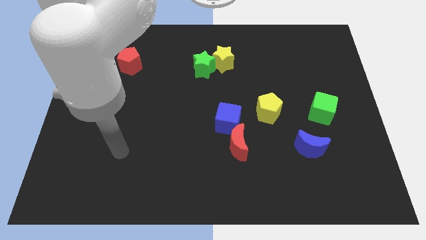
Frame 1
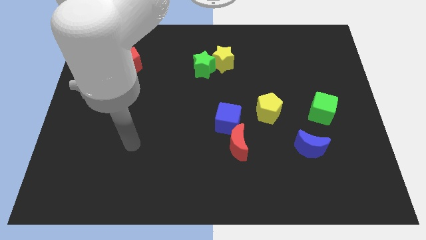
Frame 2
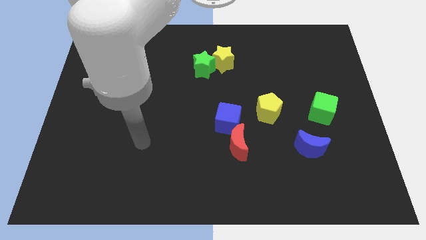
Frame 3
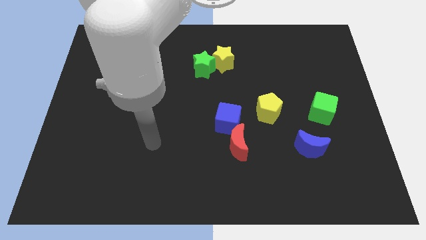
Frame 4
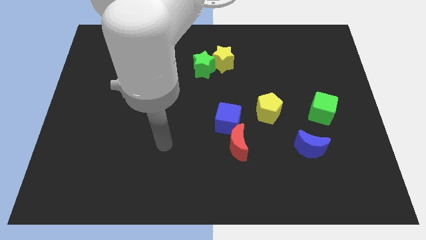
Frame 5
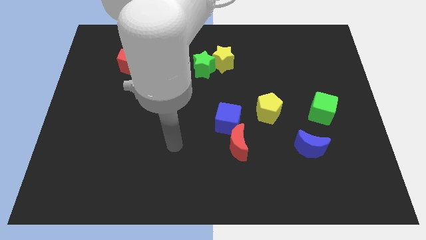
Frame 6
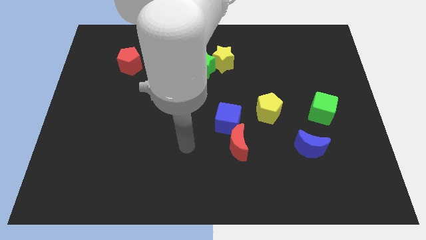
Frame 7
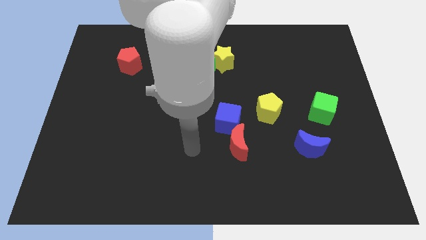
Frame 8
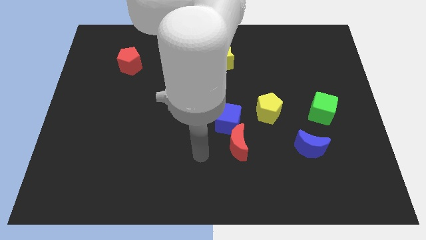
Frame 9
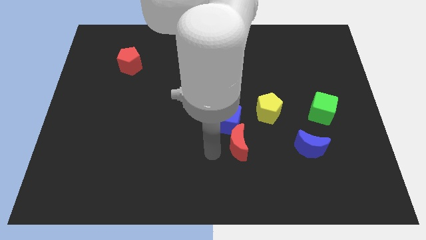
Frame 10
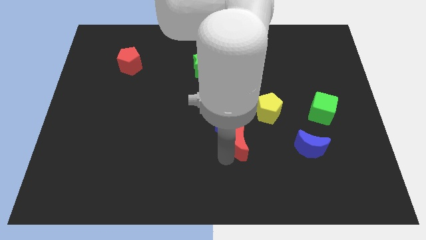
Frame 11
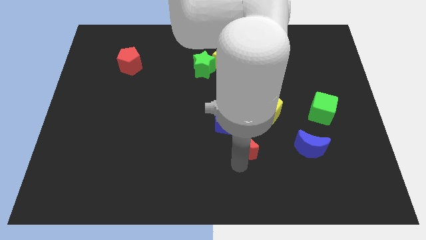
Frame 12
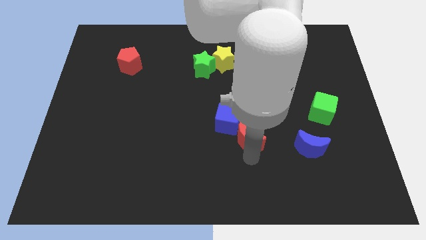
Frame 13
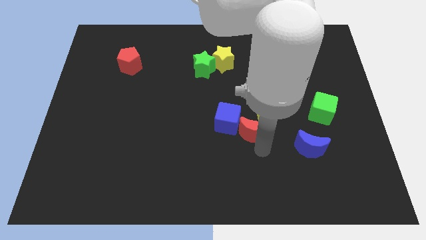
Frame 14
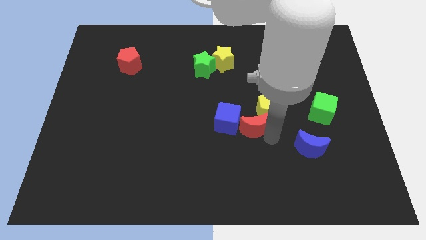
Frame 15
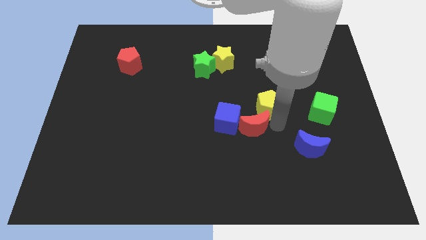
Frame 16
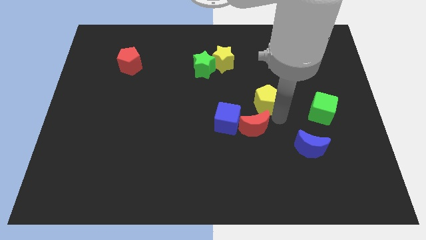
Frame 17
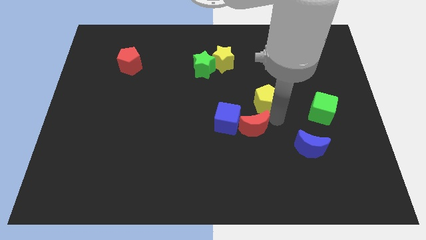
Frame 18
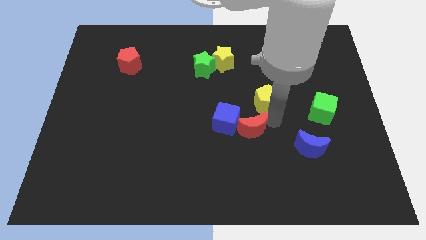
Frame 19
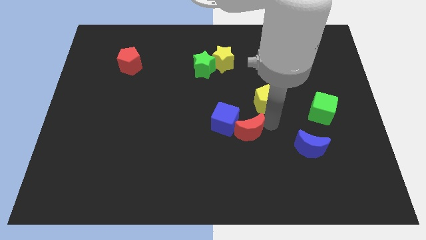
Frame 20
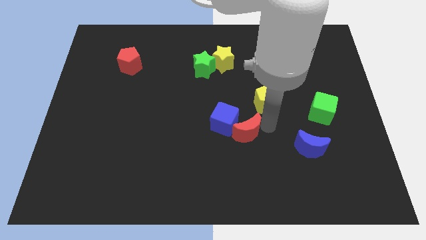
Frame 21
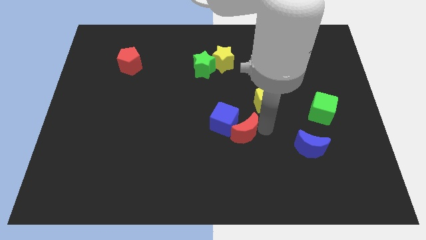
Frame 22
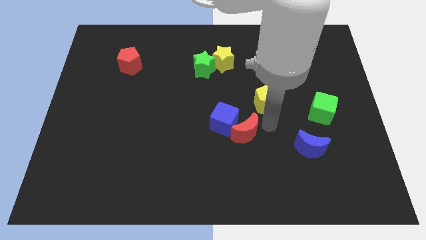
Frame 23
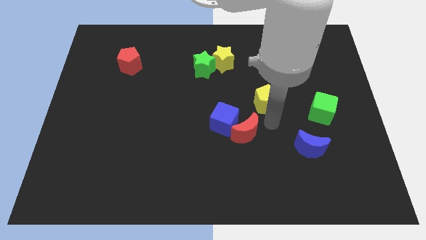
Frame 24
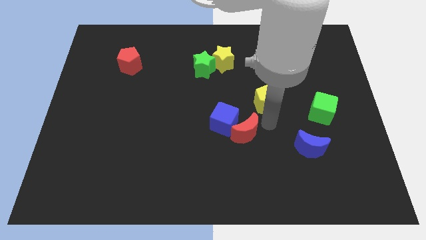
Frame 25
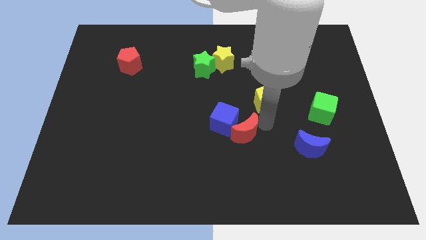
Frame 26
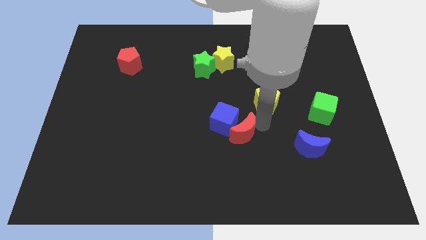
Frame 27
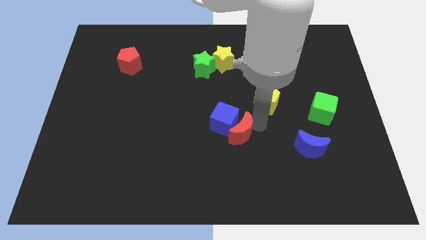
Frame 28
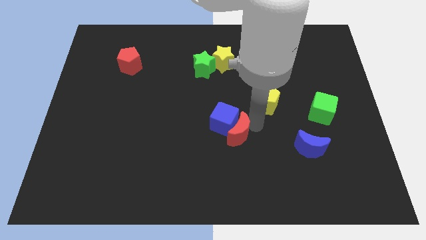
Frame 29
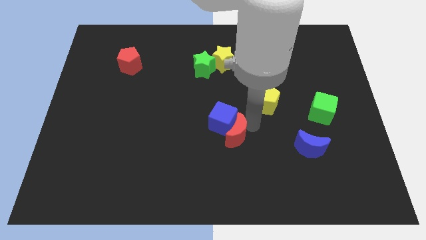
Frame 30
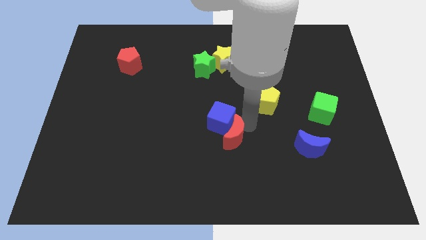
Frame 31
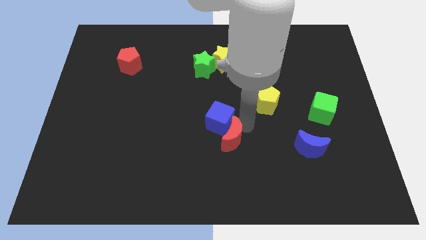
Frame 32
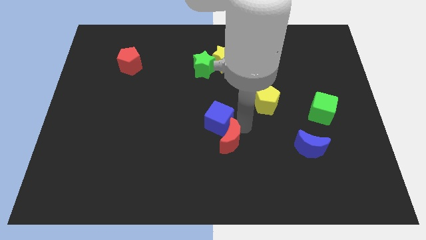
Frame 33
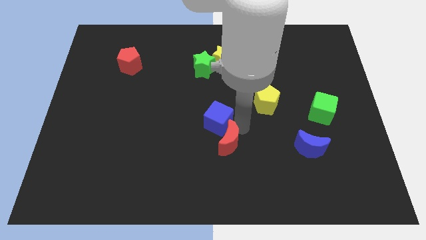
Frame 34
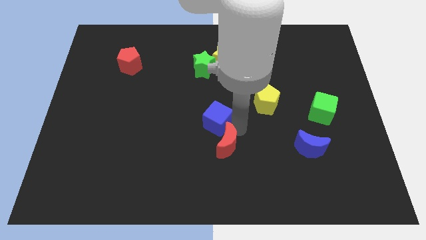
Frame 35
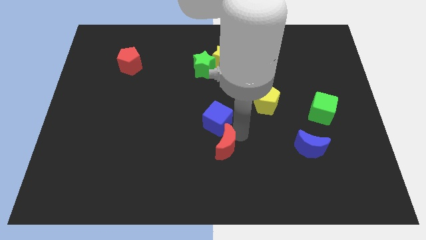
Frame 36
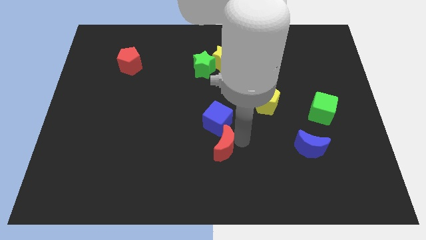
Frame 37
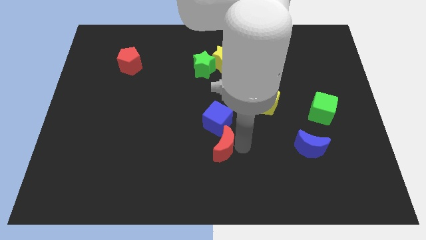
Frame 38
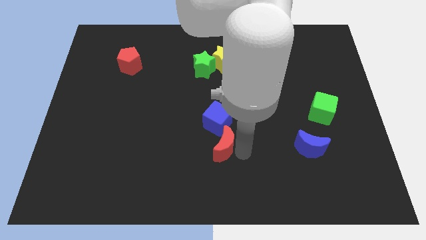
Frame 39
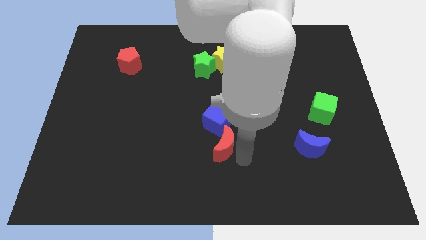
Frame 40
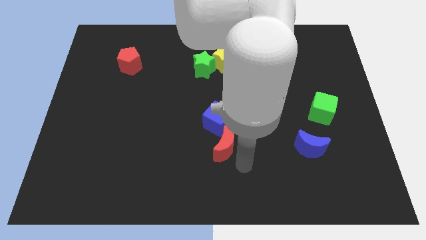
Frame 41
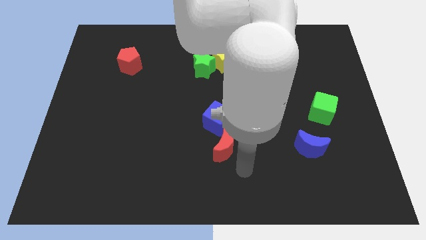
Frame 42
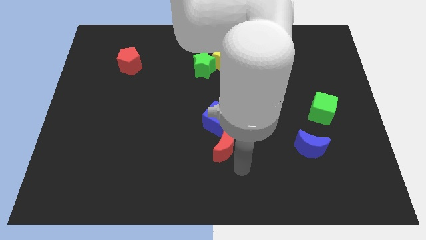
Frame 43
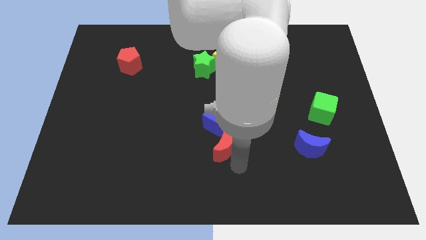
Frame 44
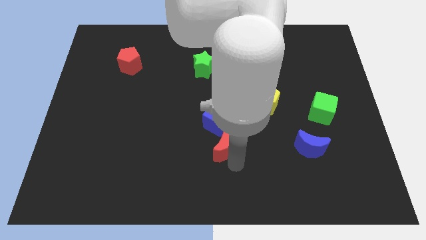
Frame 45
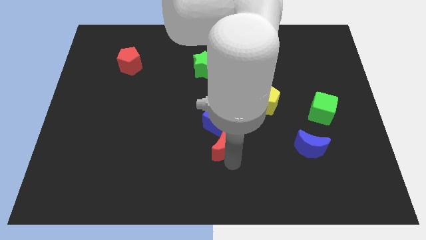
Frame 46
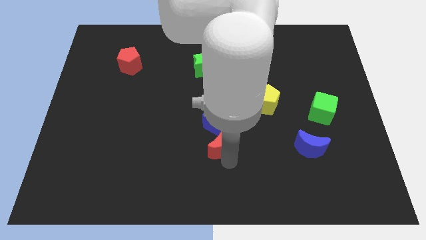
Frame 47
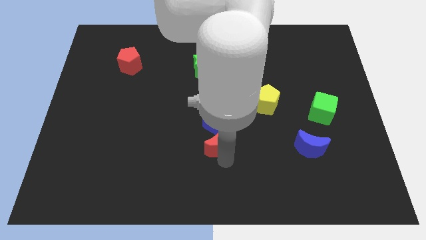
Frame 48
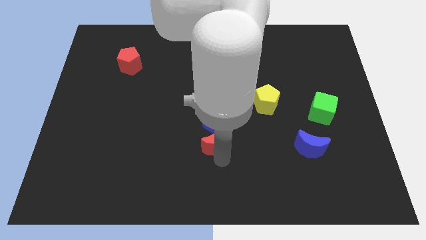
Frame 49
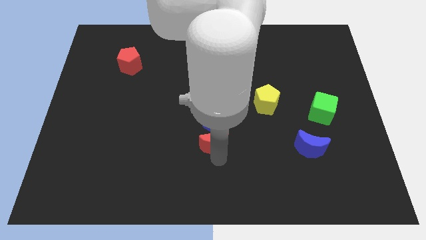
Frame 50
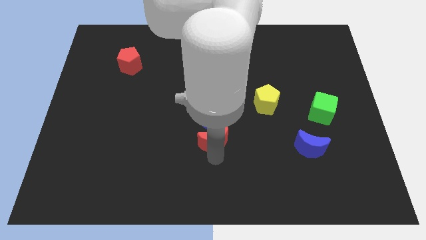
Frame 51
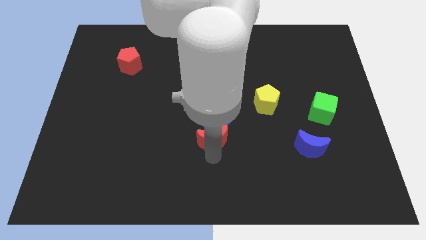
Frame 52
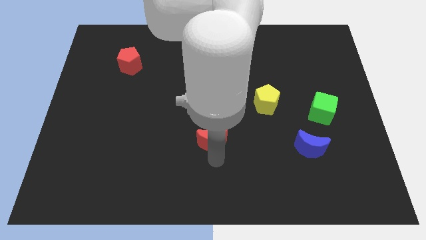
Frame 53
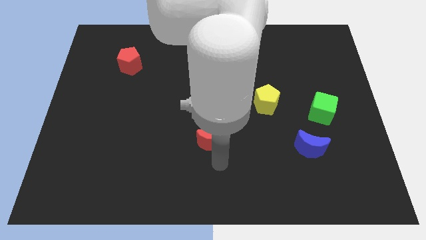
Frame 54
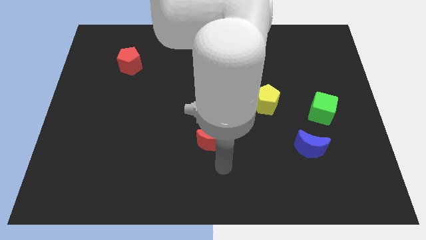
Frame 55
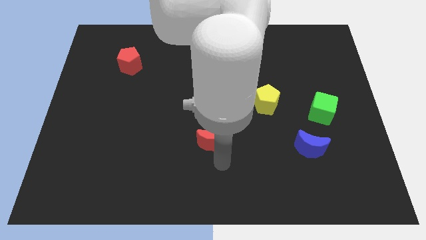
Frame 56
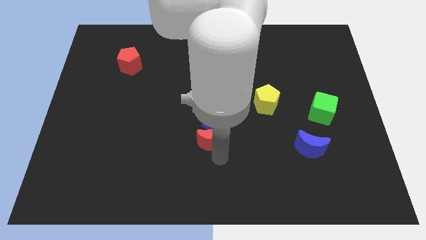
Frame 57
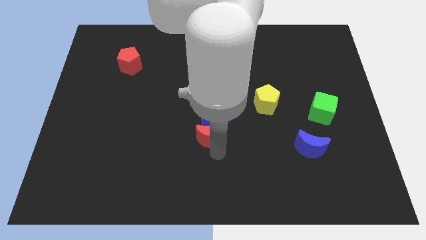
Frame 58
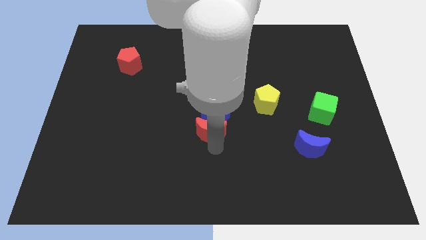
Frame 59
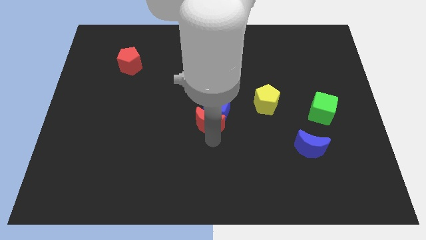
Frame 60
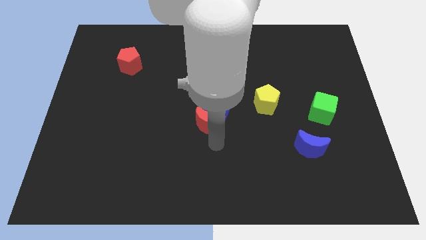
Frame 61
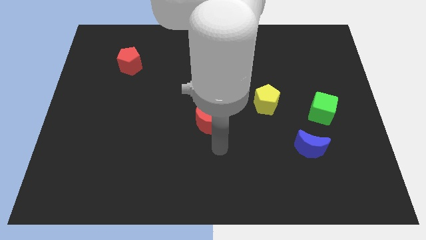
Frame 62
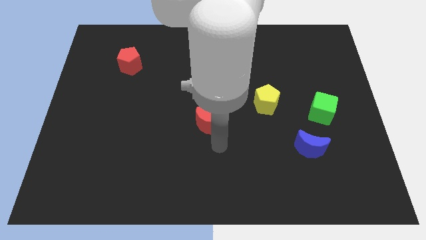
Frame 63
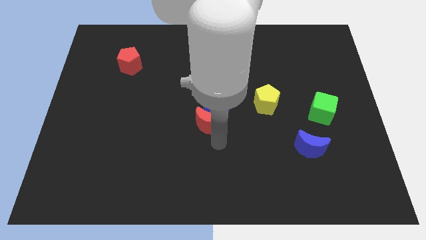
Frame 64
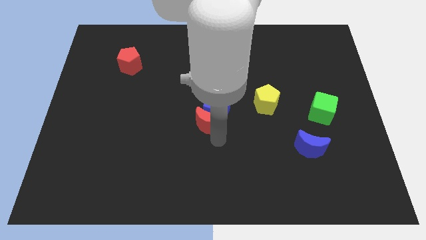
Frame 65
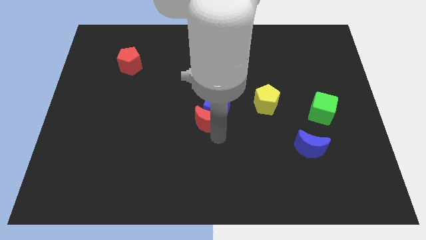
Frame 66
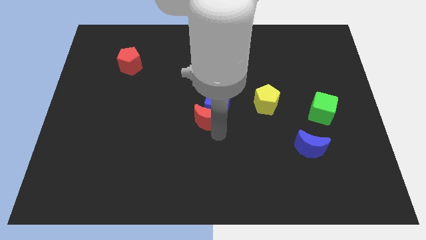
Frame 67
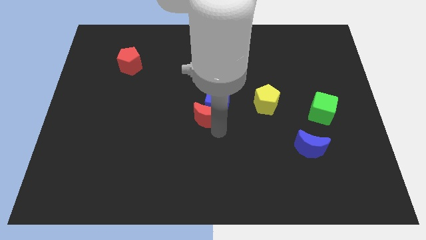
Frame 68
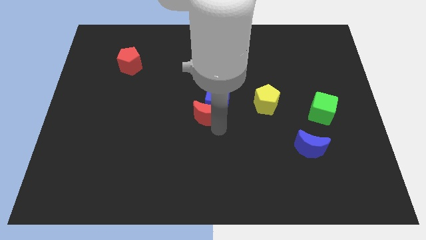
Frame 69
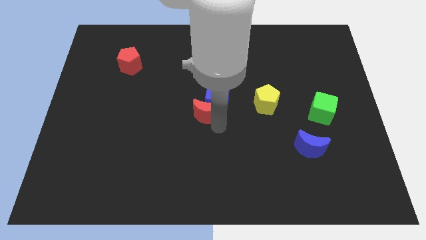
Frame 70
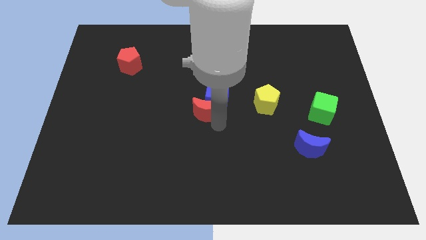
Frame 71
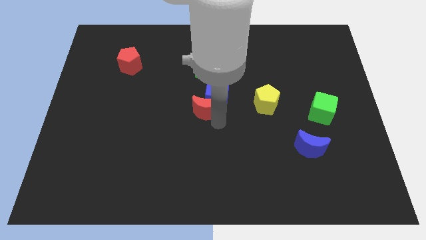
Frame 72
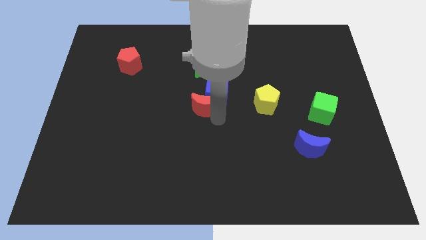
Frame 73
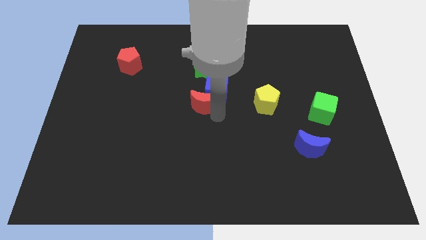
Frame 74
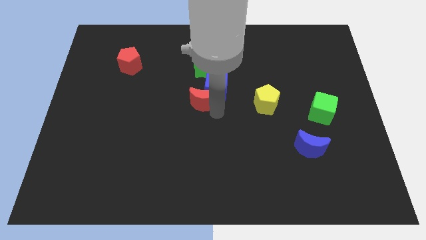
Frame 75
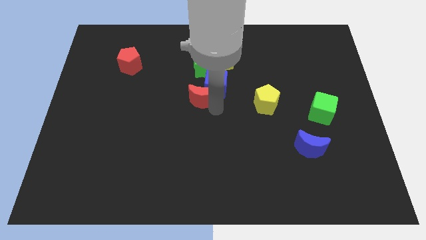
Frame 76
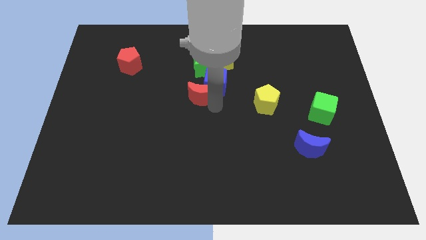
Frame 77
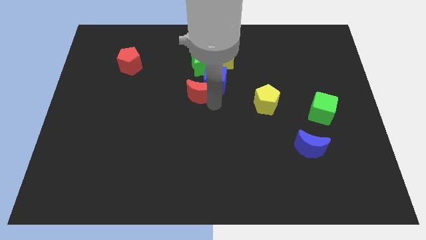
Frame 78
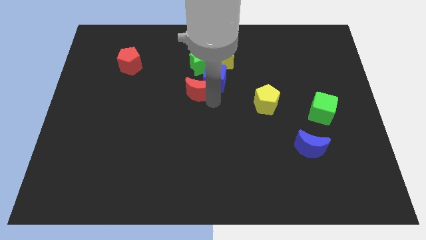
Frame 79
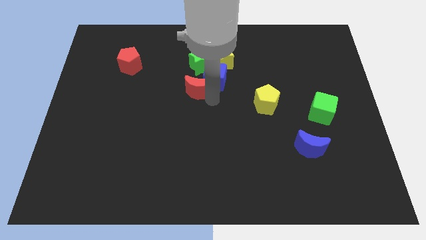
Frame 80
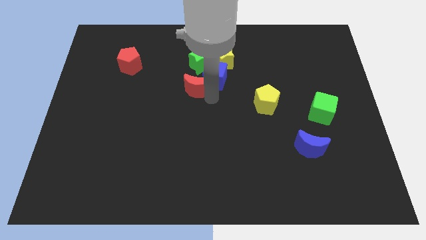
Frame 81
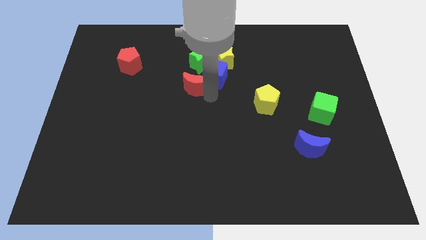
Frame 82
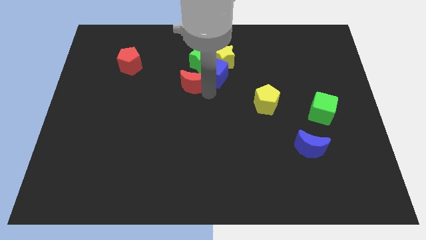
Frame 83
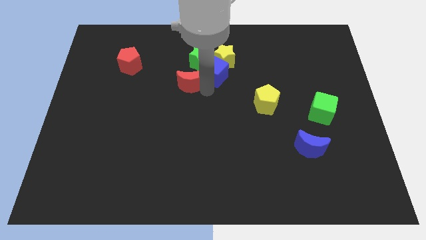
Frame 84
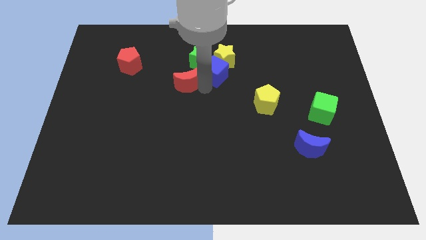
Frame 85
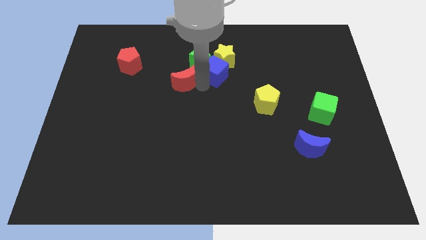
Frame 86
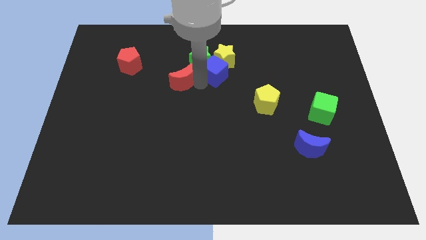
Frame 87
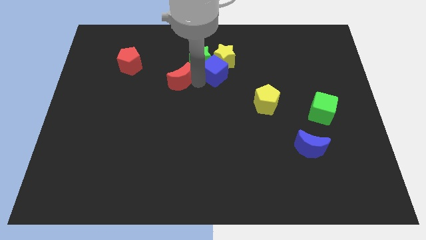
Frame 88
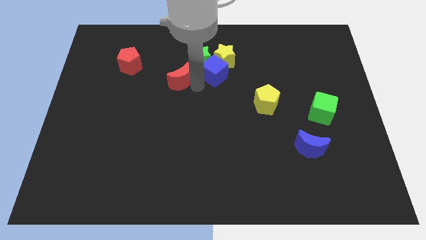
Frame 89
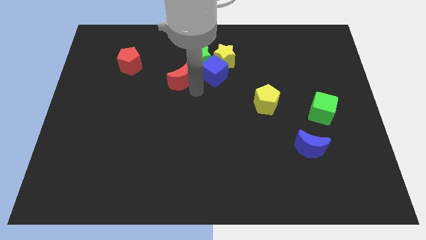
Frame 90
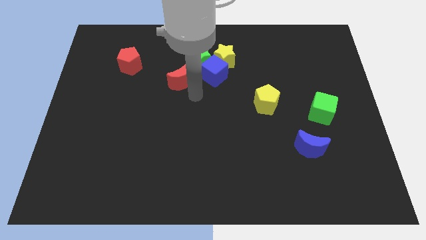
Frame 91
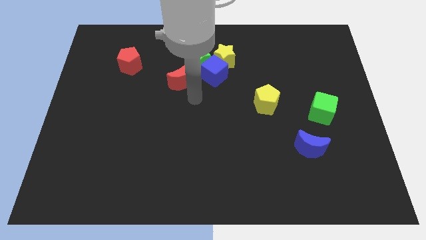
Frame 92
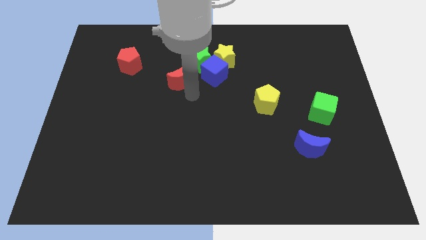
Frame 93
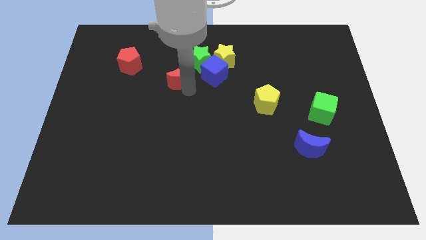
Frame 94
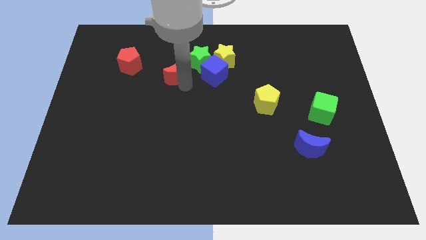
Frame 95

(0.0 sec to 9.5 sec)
move the red moon right of the red pentagon
